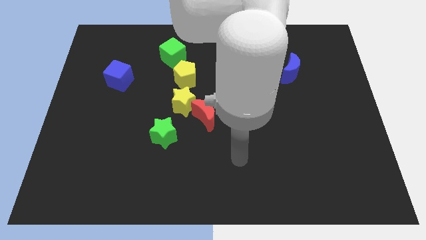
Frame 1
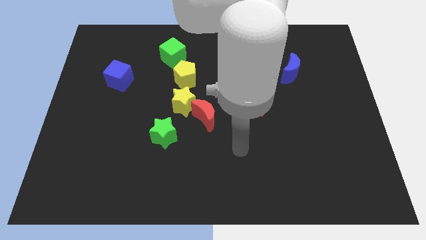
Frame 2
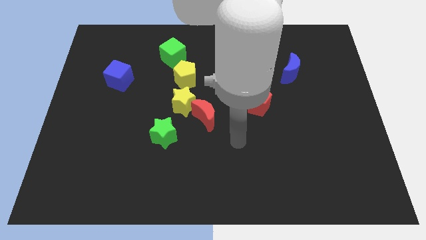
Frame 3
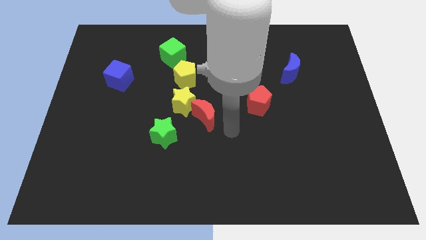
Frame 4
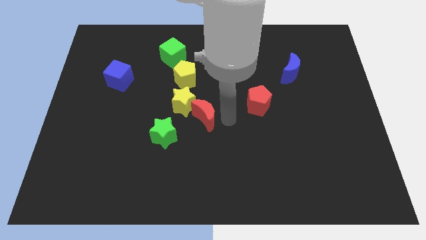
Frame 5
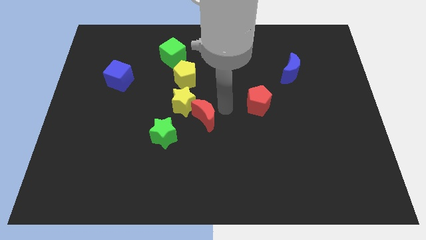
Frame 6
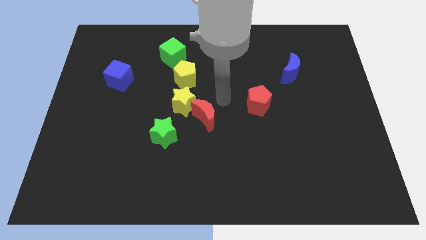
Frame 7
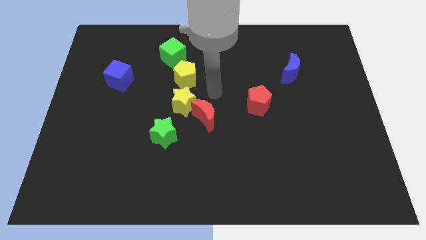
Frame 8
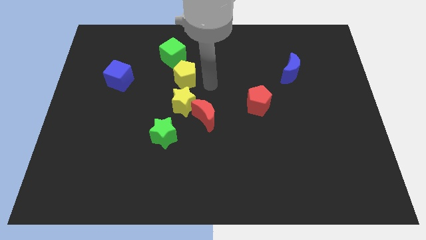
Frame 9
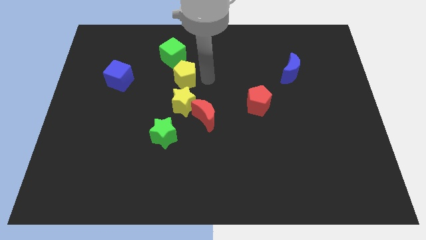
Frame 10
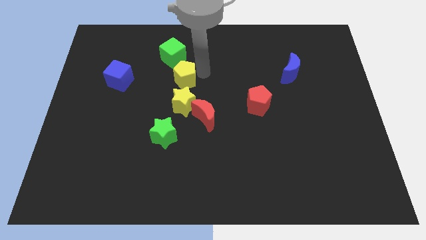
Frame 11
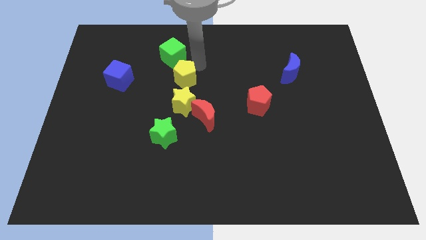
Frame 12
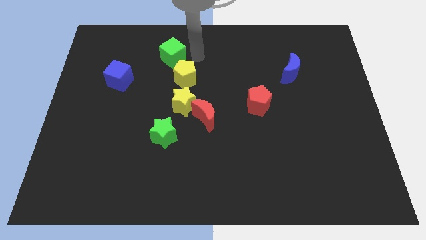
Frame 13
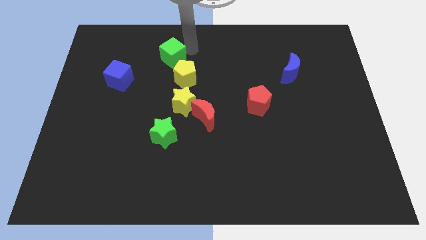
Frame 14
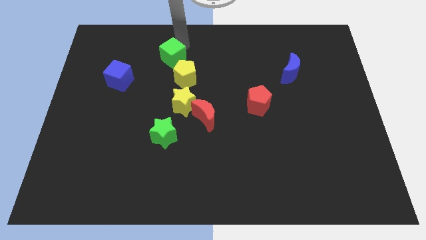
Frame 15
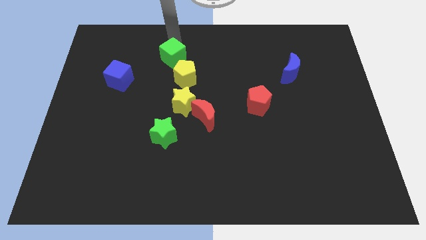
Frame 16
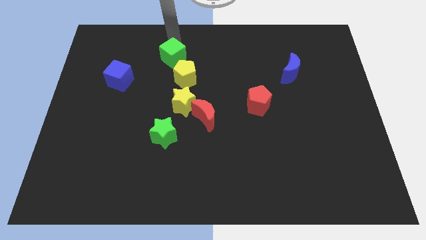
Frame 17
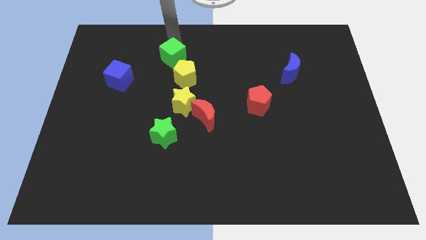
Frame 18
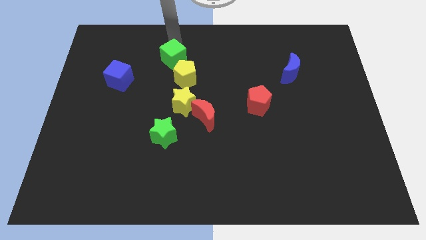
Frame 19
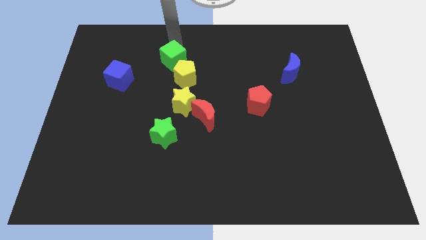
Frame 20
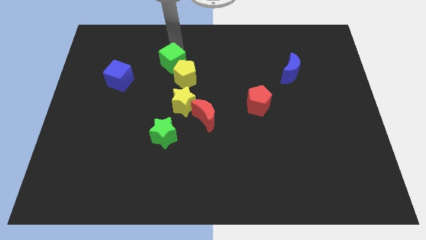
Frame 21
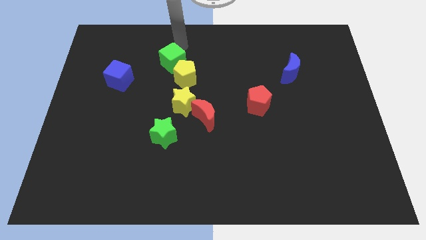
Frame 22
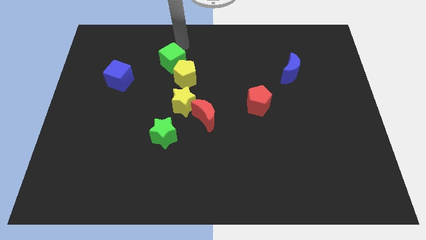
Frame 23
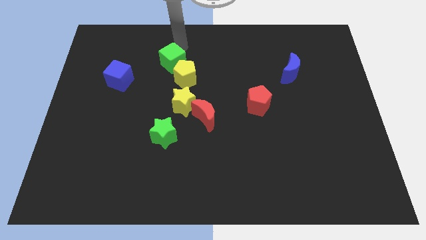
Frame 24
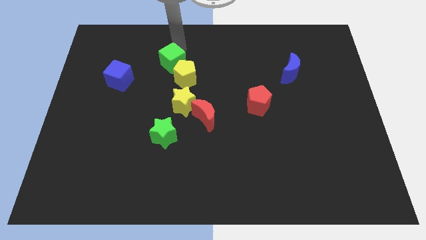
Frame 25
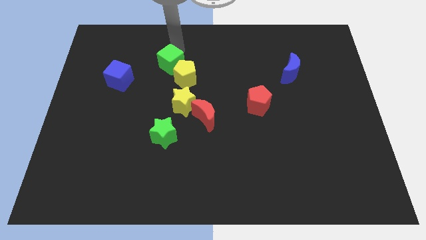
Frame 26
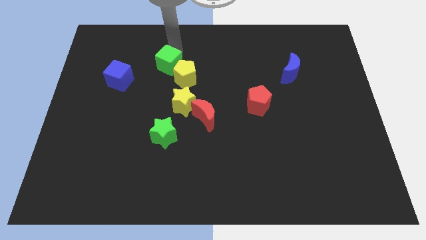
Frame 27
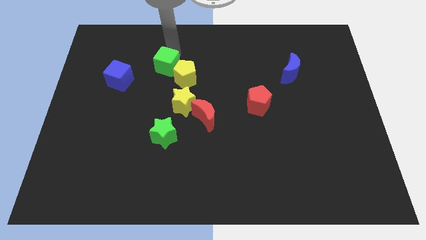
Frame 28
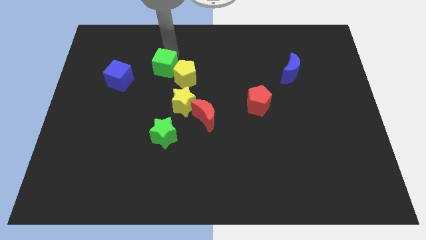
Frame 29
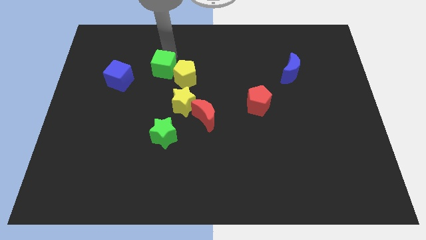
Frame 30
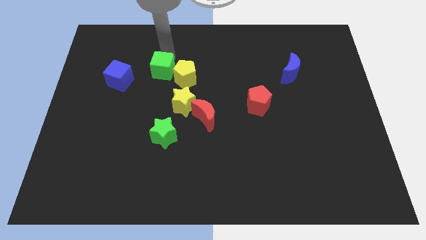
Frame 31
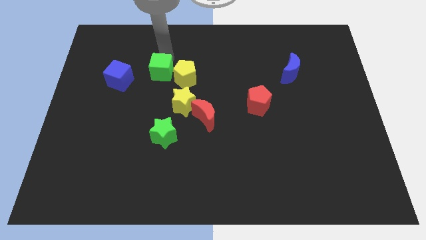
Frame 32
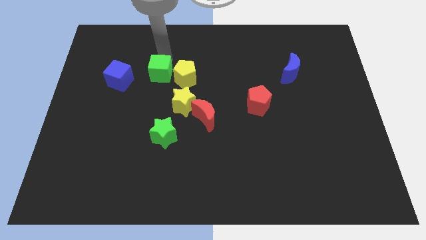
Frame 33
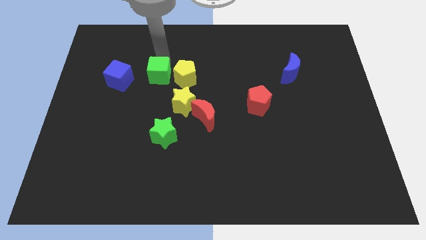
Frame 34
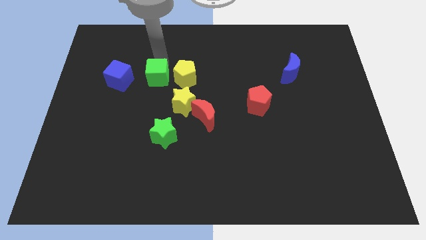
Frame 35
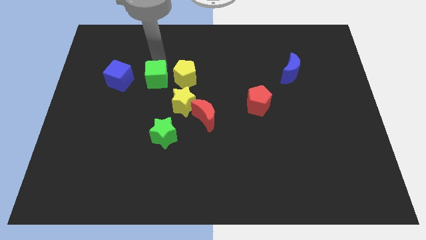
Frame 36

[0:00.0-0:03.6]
move the green cube a little down

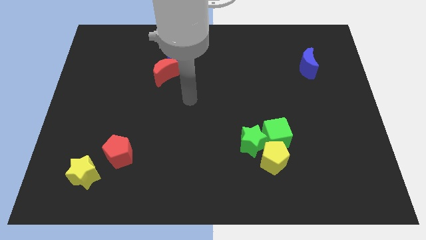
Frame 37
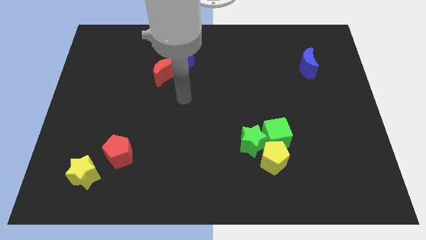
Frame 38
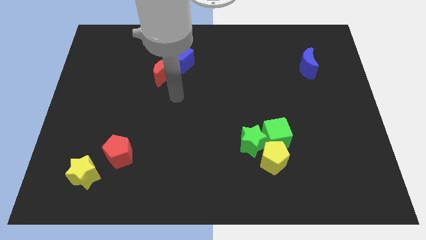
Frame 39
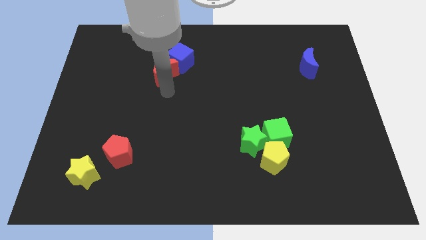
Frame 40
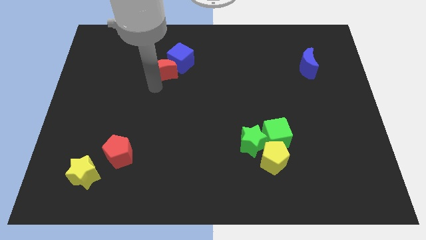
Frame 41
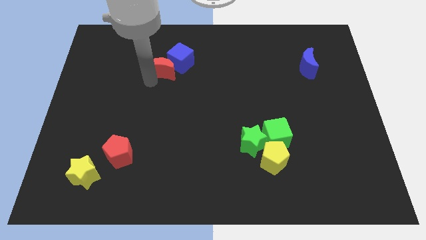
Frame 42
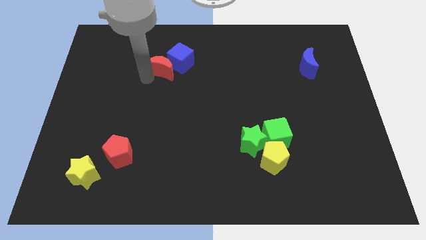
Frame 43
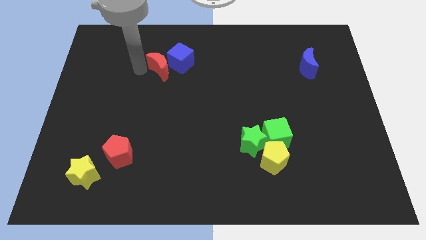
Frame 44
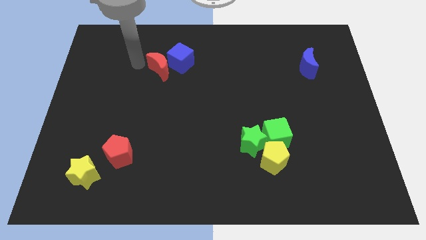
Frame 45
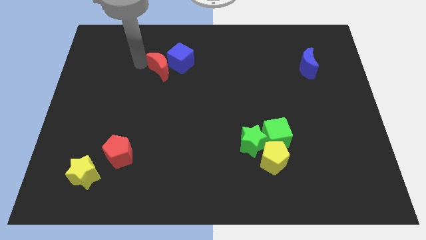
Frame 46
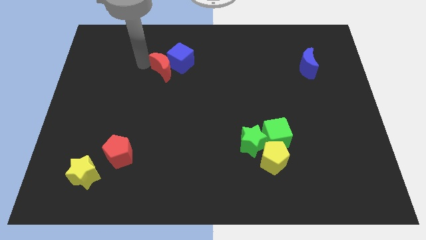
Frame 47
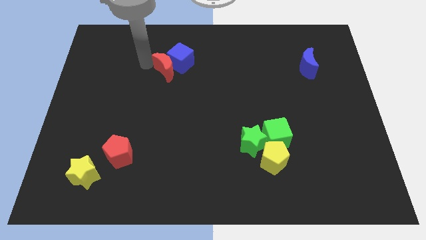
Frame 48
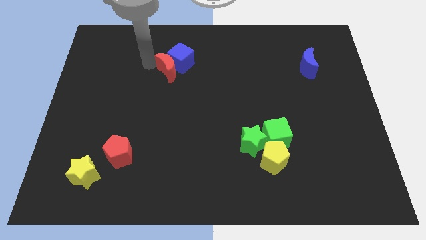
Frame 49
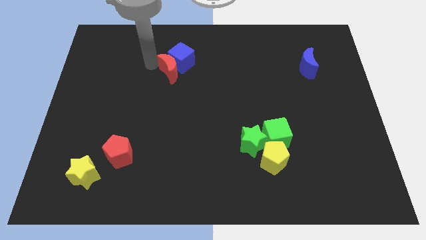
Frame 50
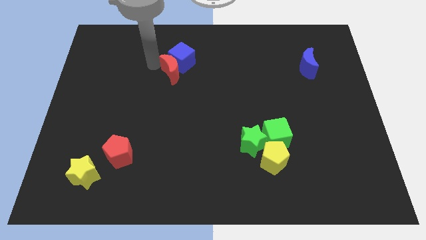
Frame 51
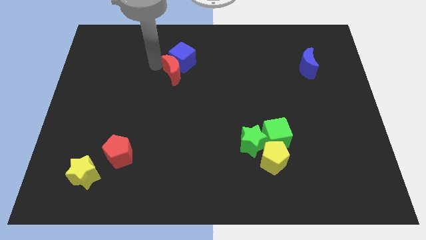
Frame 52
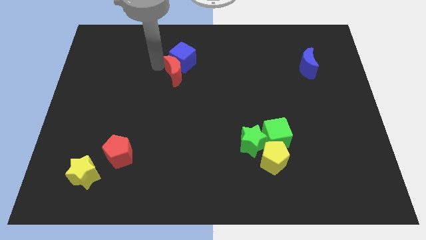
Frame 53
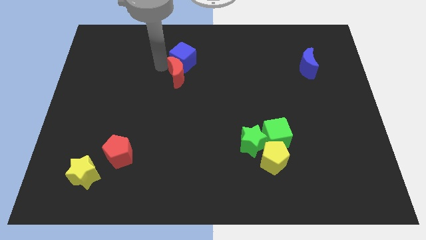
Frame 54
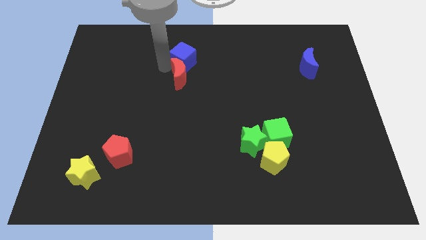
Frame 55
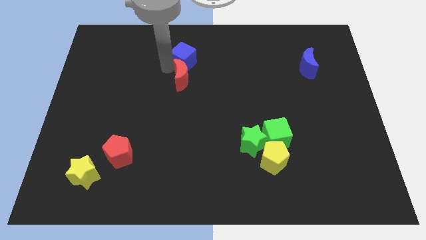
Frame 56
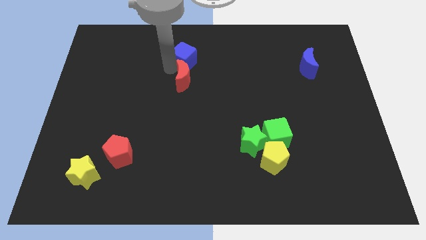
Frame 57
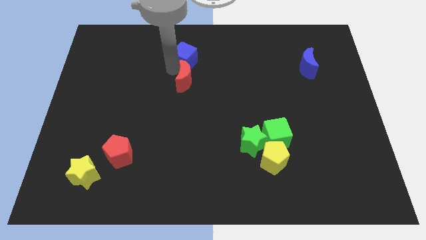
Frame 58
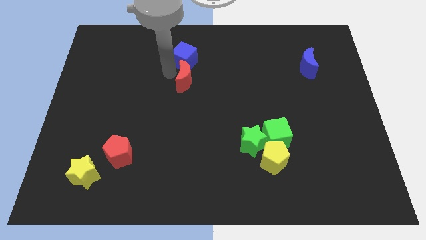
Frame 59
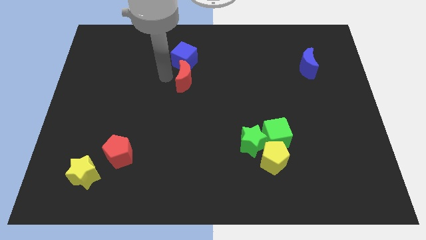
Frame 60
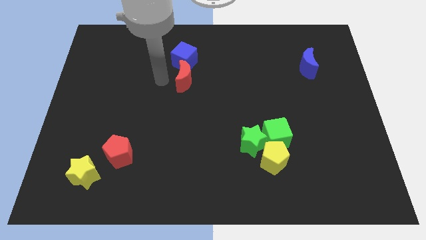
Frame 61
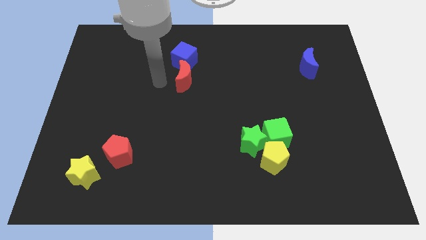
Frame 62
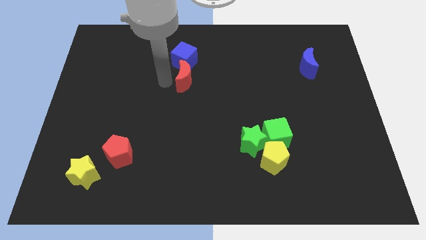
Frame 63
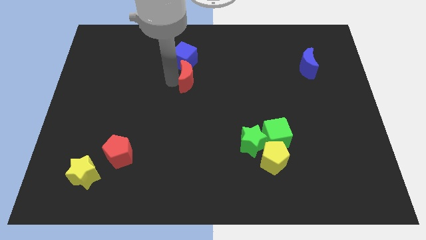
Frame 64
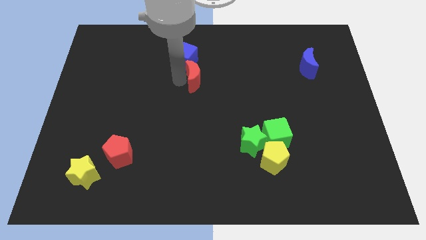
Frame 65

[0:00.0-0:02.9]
slightly move the red moon right

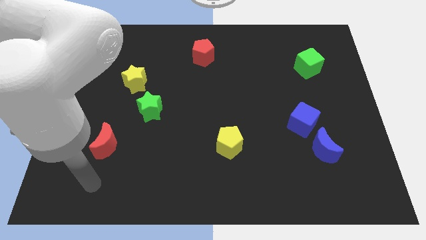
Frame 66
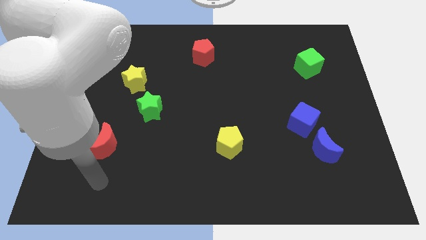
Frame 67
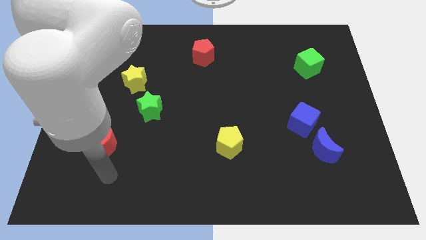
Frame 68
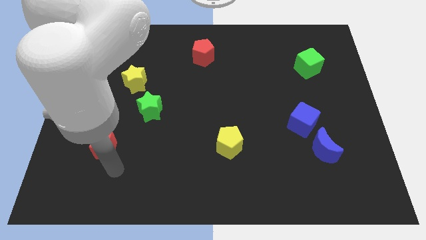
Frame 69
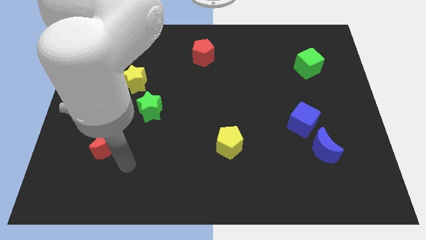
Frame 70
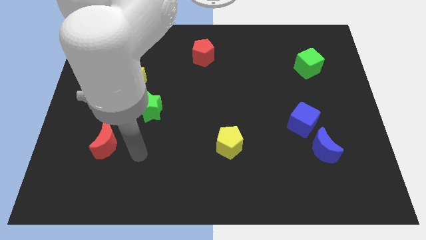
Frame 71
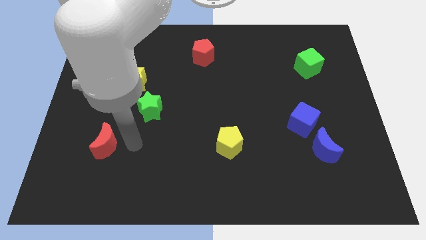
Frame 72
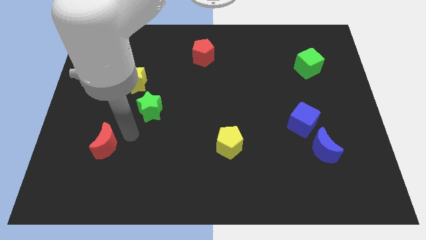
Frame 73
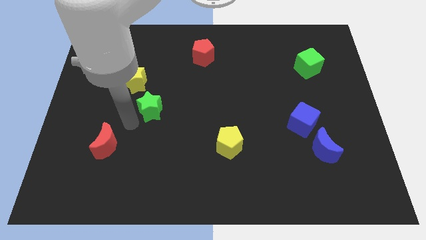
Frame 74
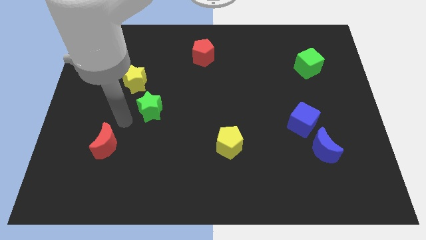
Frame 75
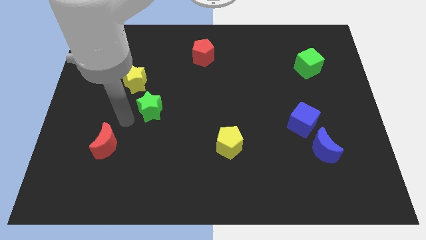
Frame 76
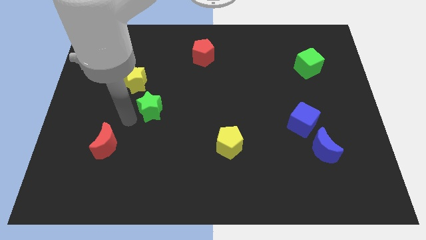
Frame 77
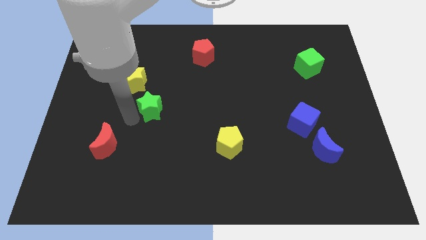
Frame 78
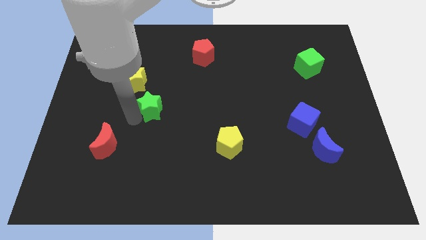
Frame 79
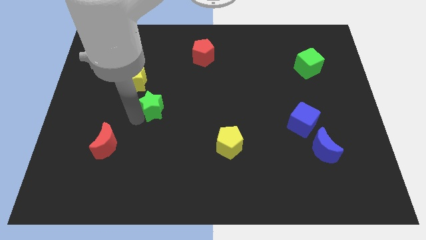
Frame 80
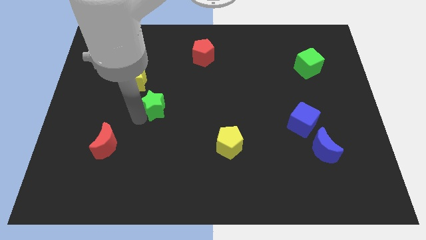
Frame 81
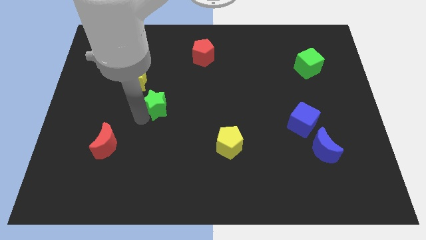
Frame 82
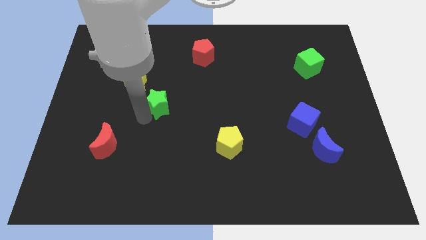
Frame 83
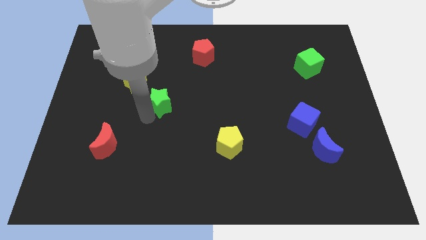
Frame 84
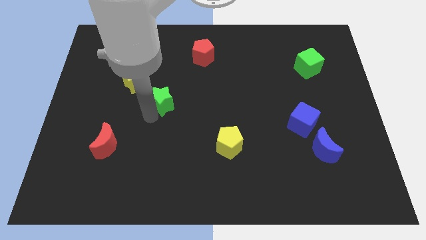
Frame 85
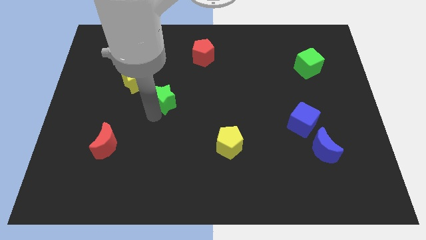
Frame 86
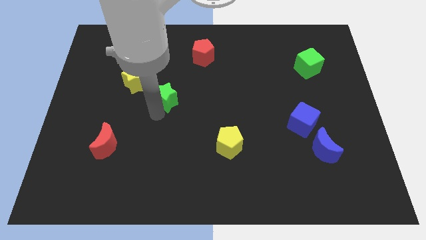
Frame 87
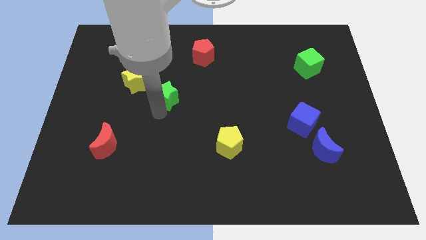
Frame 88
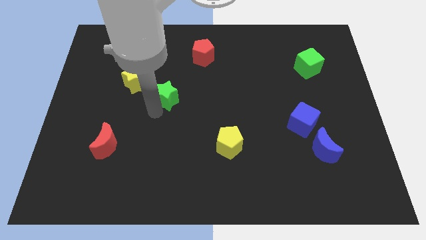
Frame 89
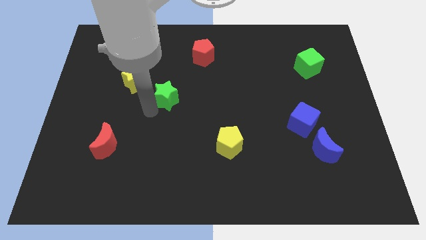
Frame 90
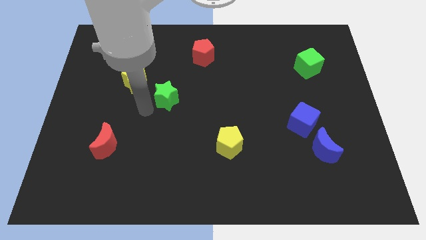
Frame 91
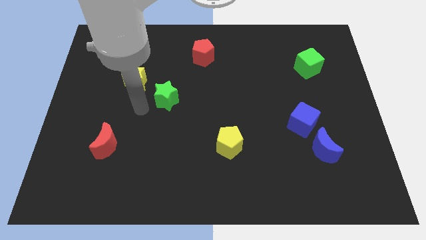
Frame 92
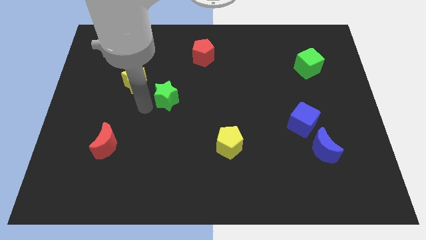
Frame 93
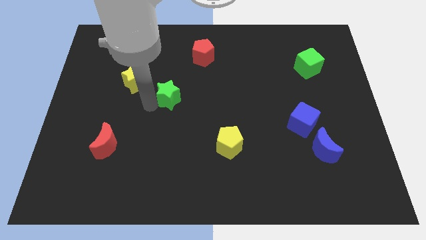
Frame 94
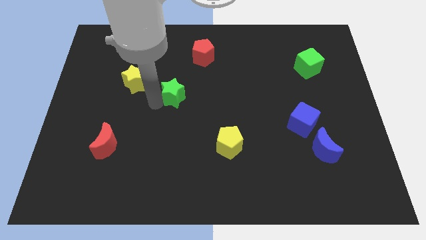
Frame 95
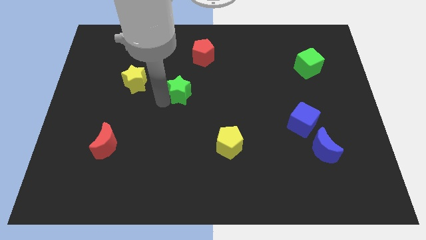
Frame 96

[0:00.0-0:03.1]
move the green star a little up and right
